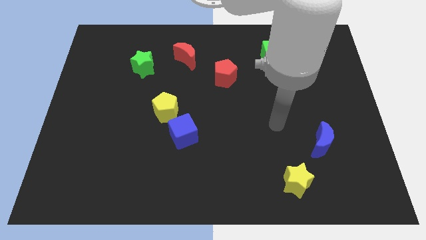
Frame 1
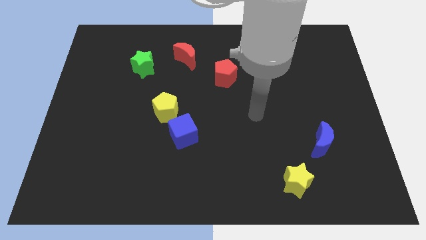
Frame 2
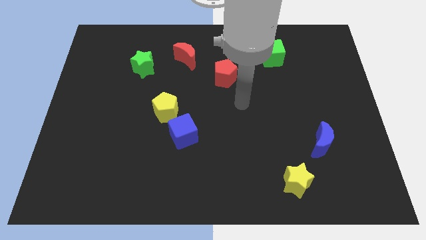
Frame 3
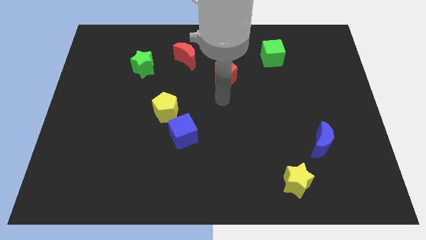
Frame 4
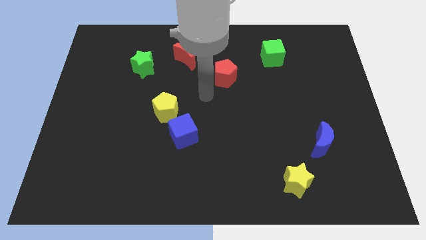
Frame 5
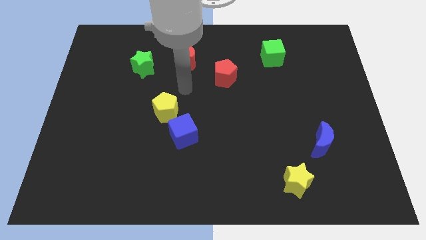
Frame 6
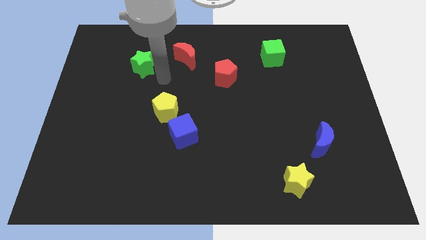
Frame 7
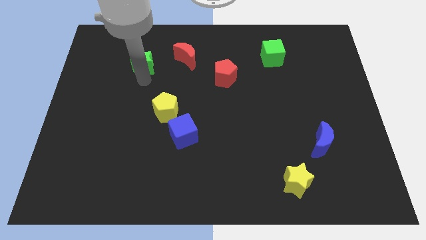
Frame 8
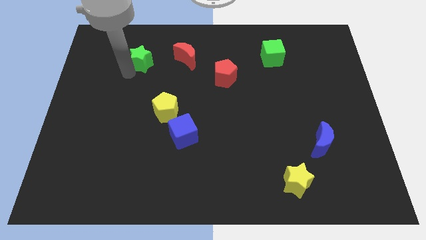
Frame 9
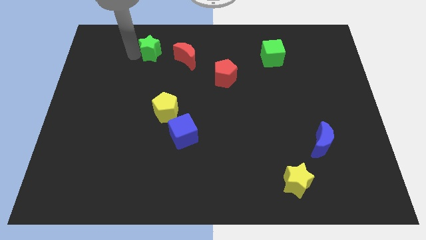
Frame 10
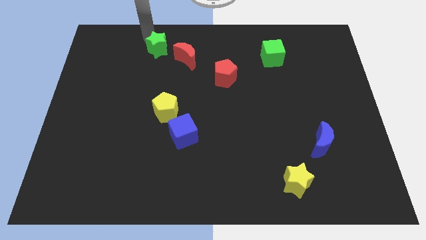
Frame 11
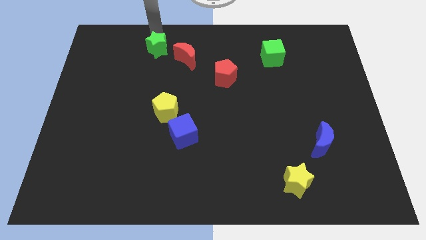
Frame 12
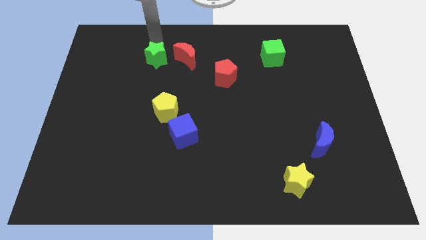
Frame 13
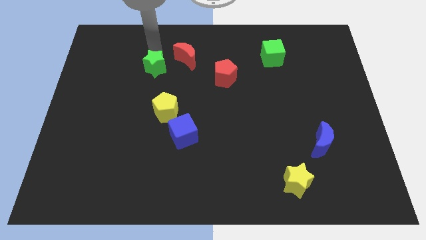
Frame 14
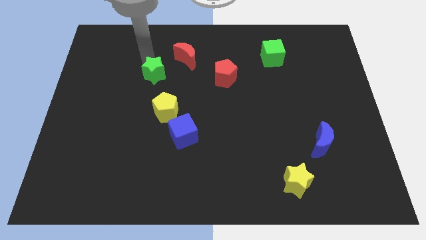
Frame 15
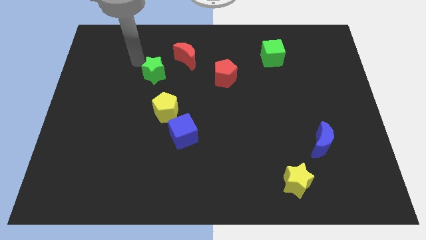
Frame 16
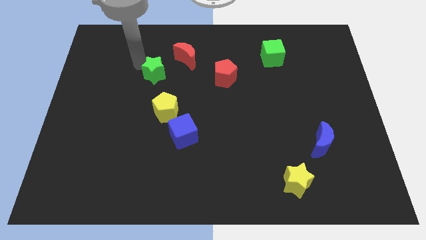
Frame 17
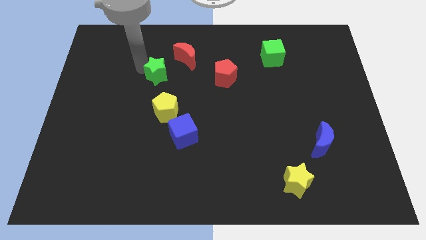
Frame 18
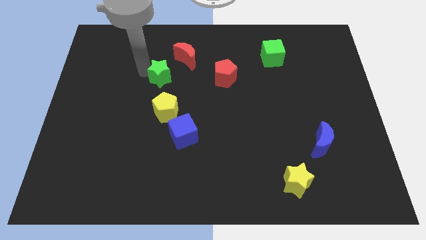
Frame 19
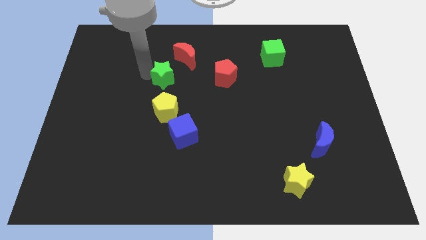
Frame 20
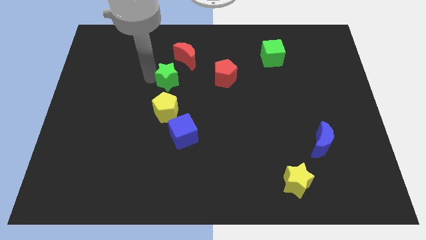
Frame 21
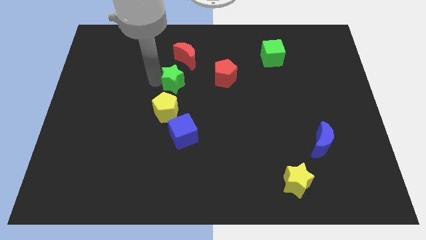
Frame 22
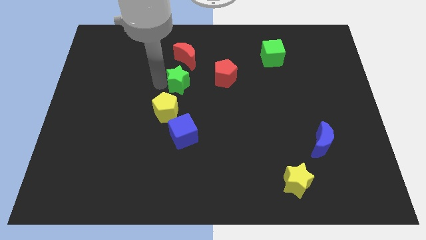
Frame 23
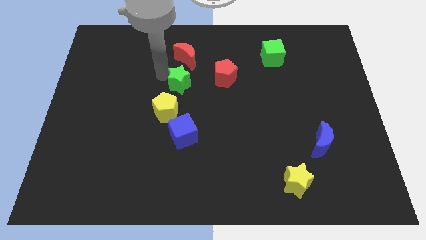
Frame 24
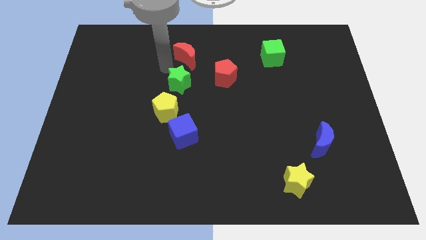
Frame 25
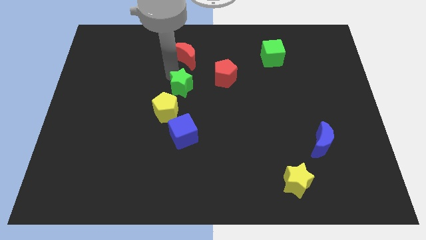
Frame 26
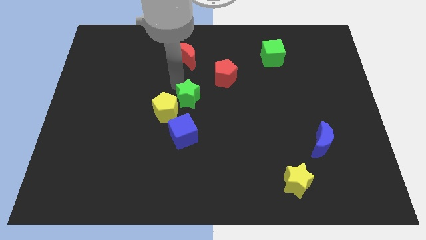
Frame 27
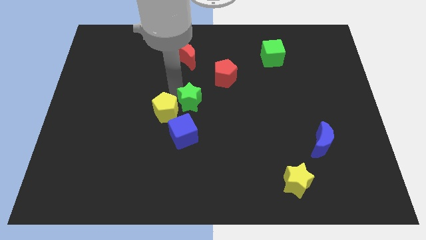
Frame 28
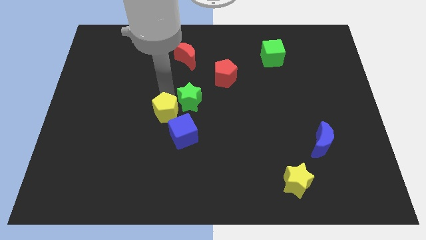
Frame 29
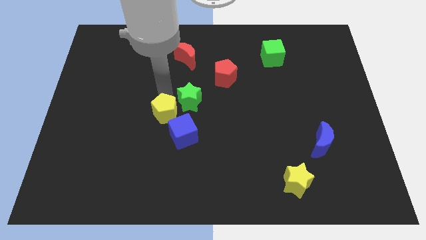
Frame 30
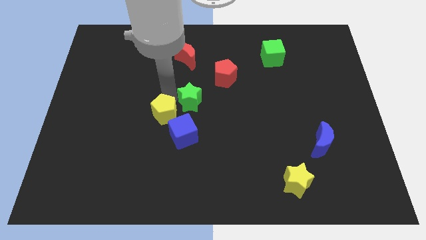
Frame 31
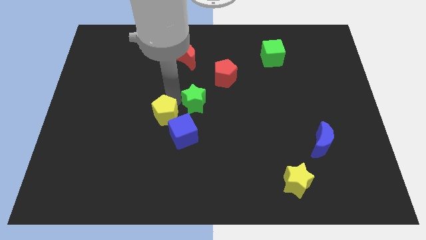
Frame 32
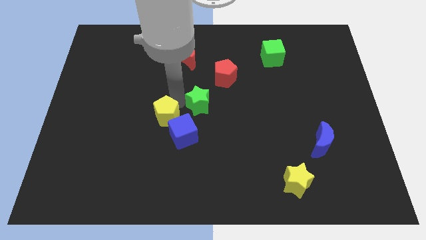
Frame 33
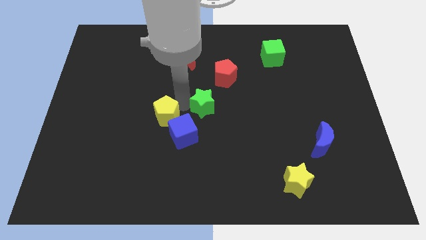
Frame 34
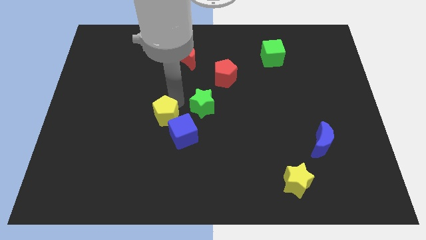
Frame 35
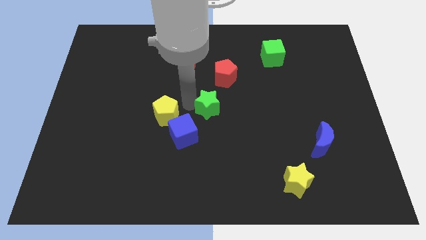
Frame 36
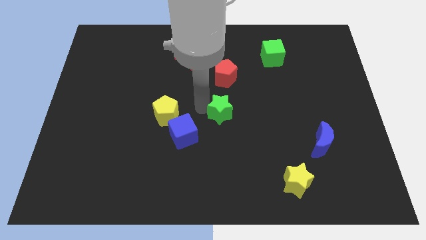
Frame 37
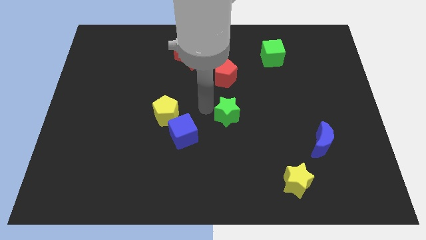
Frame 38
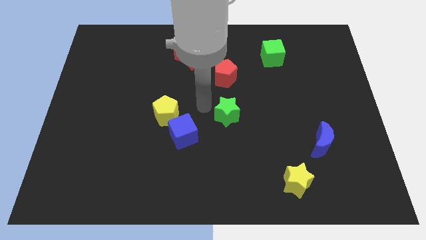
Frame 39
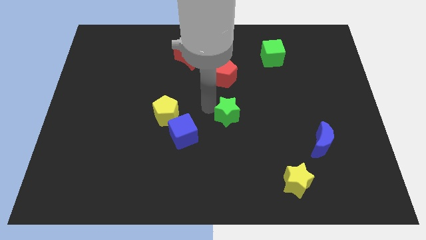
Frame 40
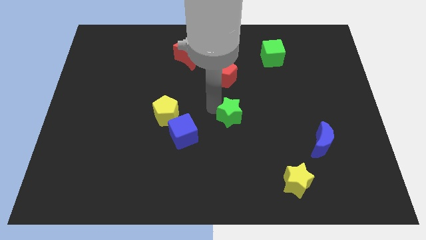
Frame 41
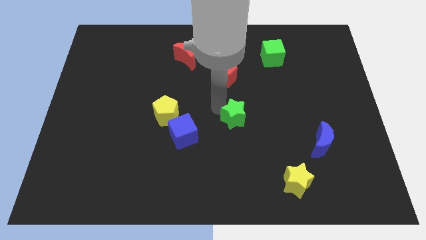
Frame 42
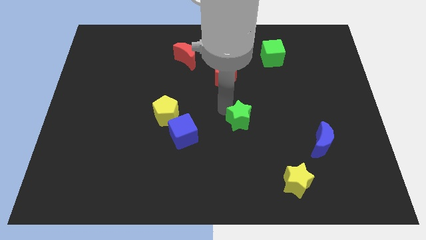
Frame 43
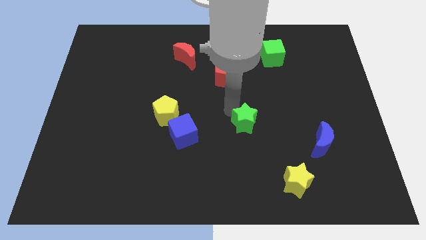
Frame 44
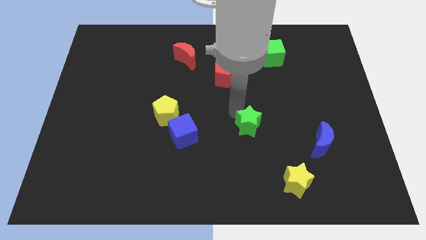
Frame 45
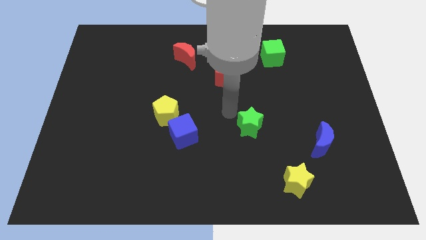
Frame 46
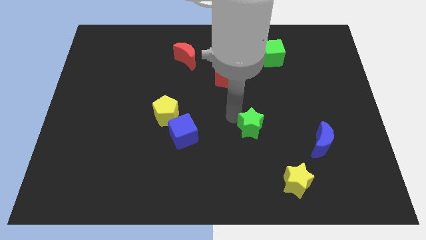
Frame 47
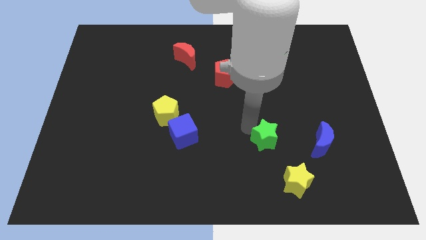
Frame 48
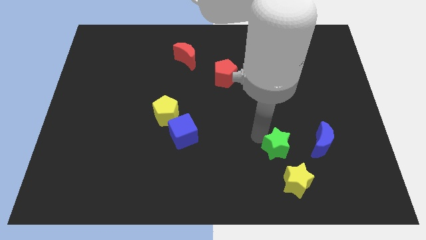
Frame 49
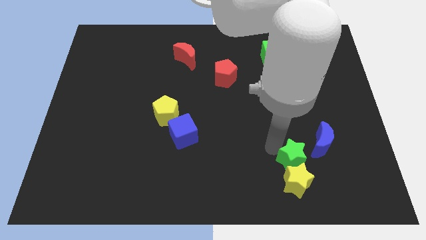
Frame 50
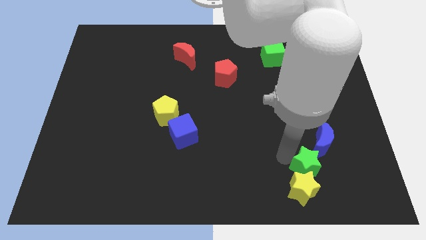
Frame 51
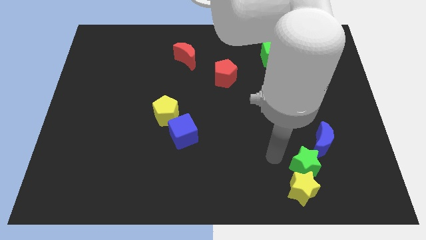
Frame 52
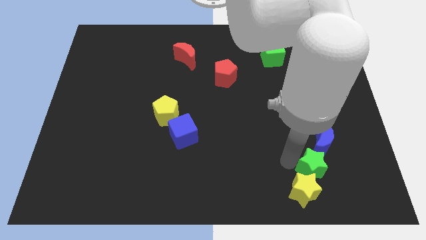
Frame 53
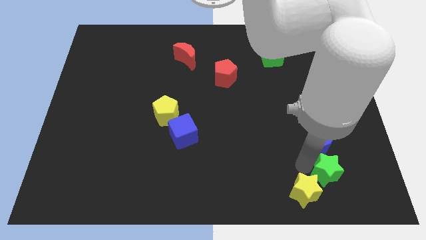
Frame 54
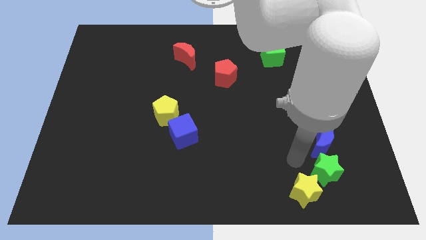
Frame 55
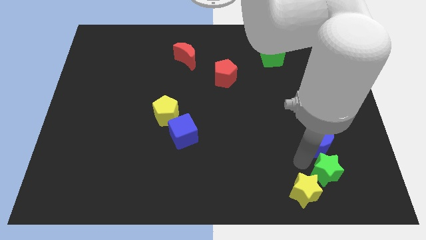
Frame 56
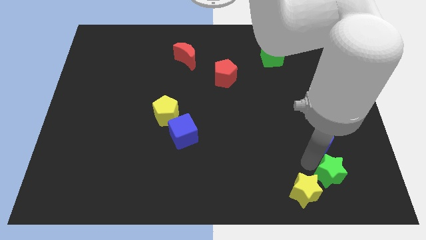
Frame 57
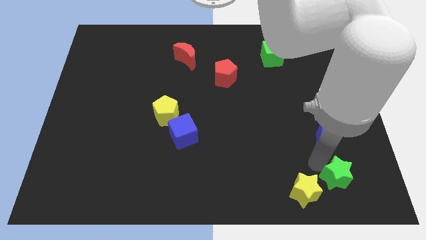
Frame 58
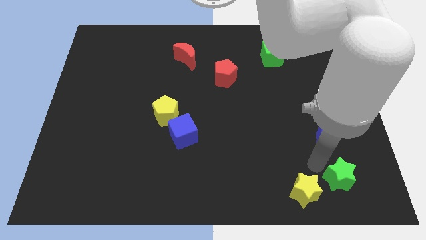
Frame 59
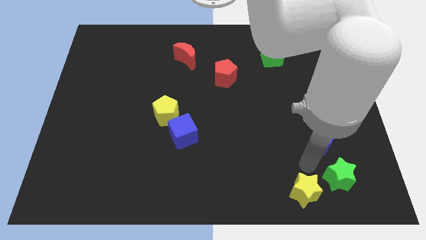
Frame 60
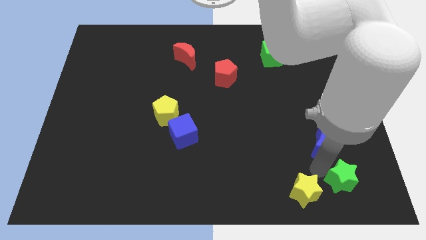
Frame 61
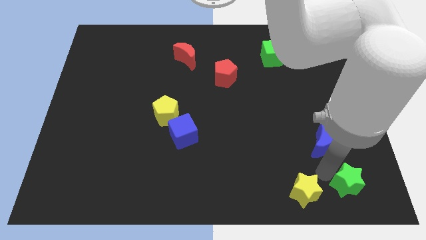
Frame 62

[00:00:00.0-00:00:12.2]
move the green star to the lower right corner
